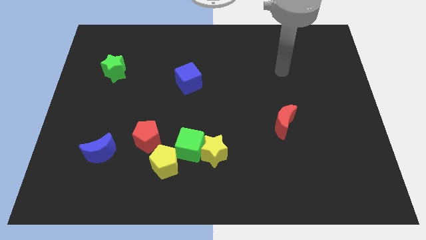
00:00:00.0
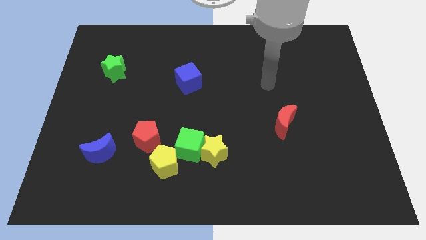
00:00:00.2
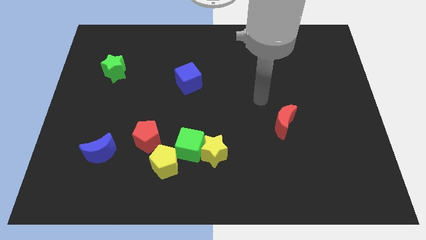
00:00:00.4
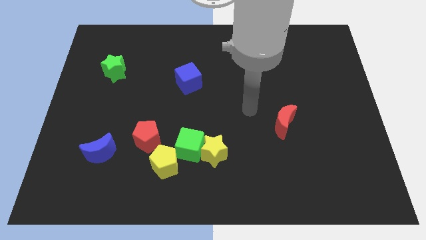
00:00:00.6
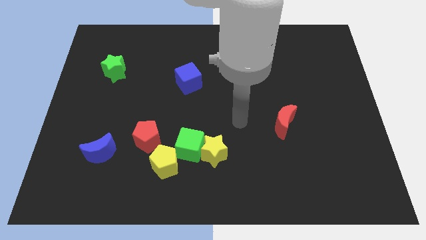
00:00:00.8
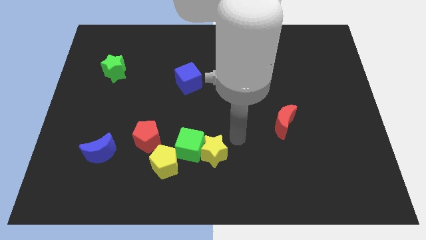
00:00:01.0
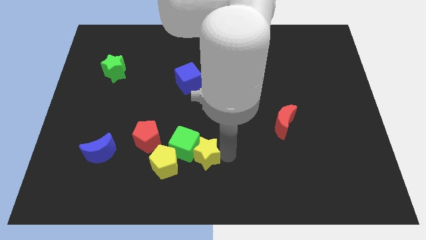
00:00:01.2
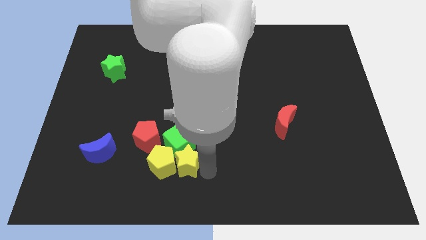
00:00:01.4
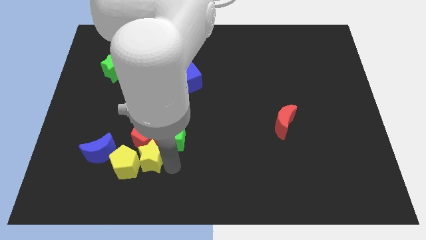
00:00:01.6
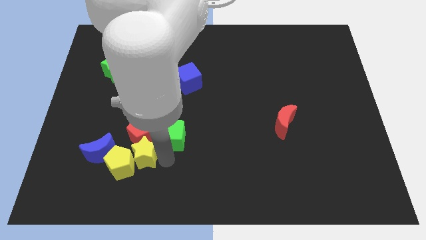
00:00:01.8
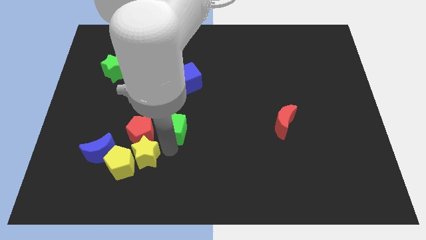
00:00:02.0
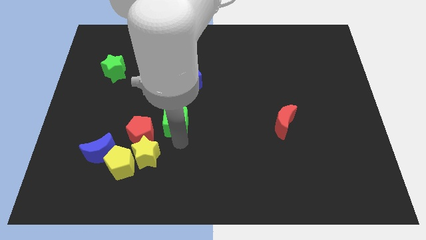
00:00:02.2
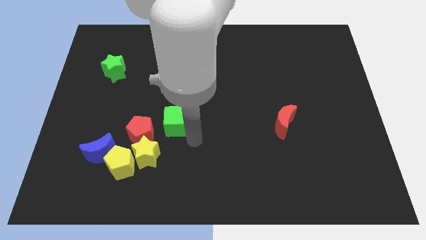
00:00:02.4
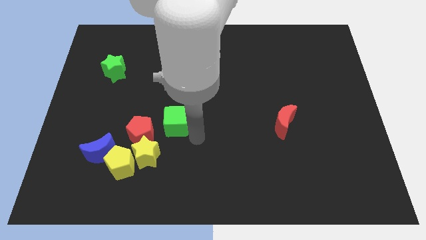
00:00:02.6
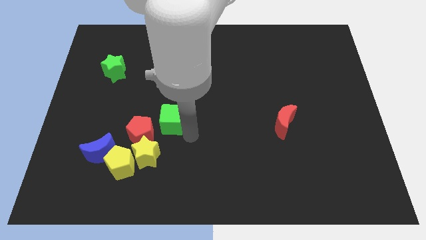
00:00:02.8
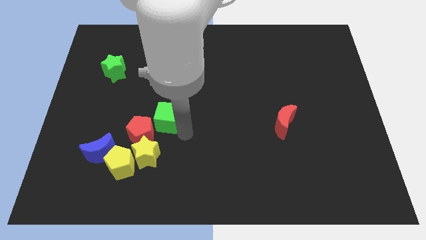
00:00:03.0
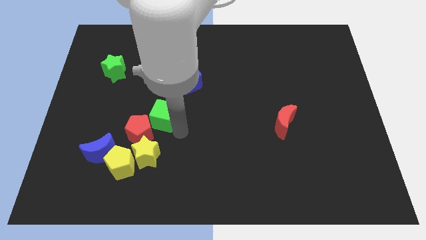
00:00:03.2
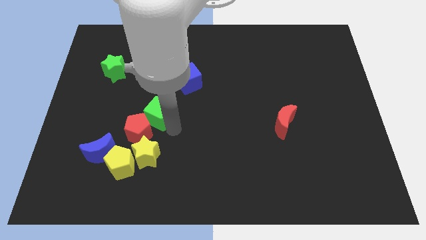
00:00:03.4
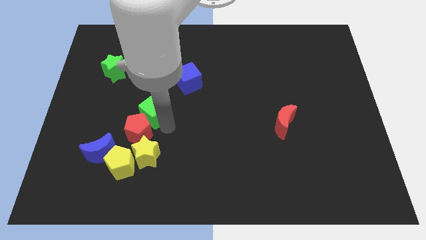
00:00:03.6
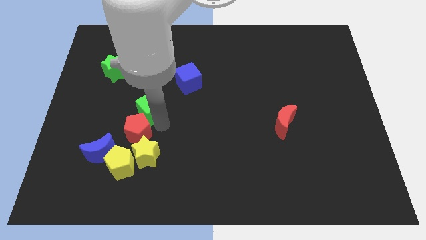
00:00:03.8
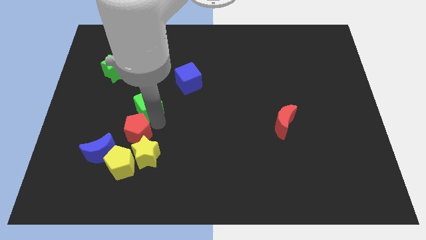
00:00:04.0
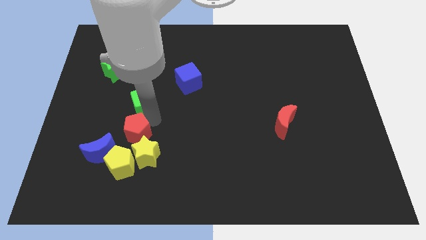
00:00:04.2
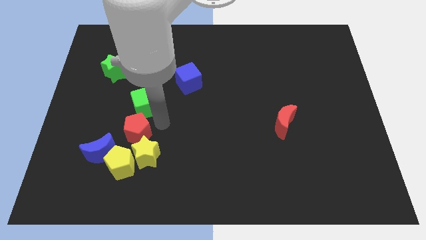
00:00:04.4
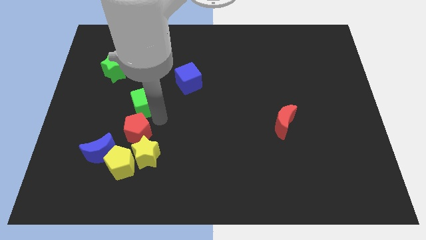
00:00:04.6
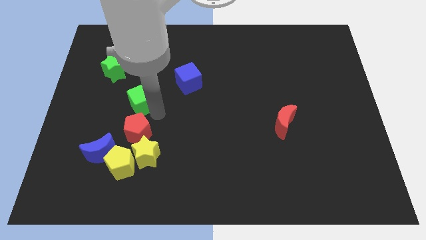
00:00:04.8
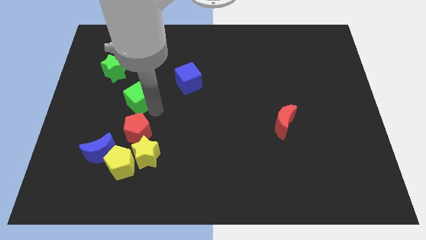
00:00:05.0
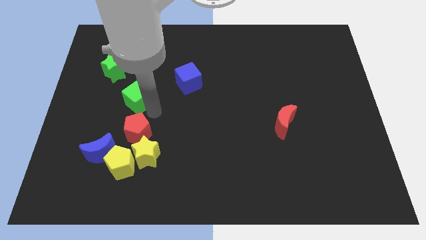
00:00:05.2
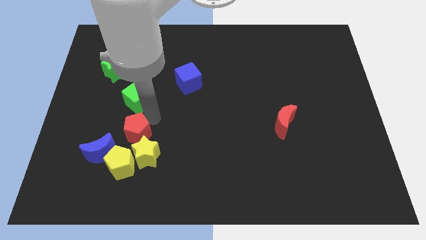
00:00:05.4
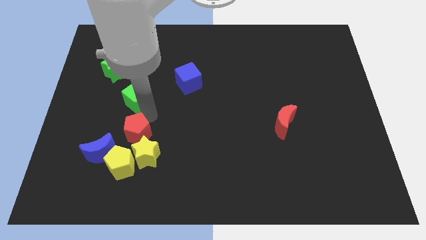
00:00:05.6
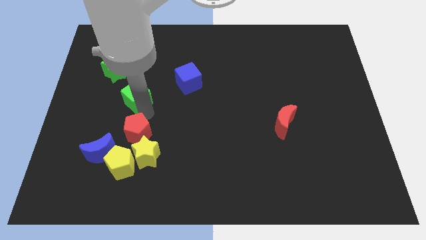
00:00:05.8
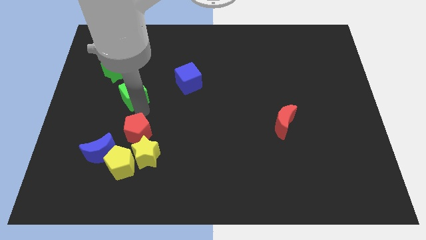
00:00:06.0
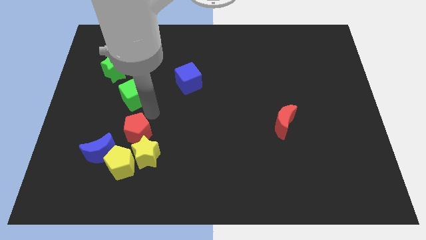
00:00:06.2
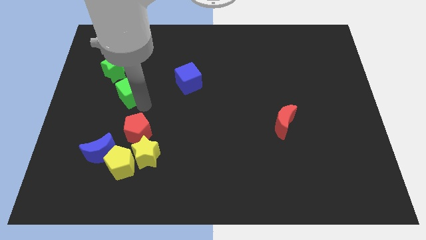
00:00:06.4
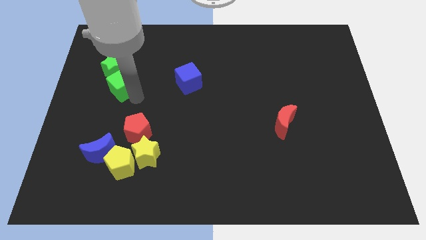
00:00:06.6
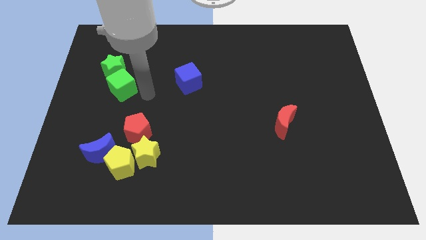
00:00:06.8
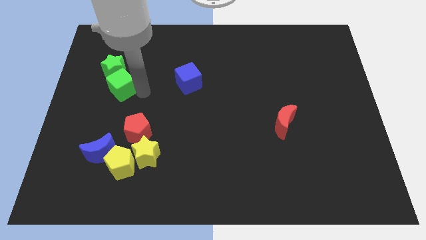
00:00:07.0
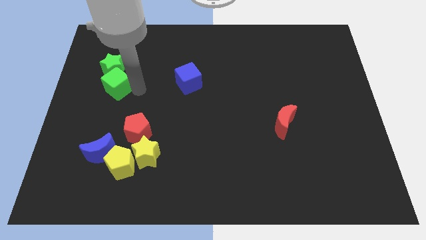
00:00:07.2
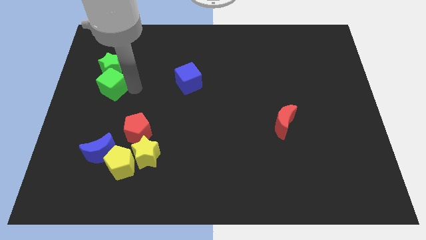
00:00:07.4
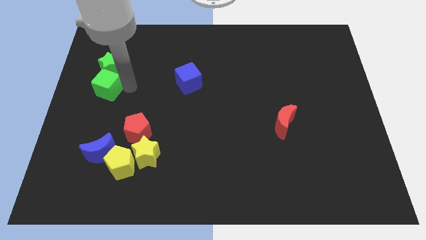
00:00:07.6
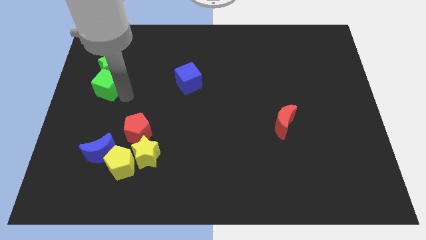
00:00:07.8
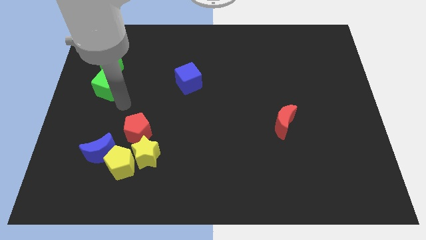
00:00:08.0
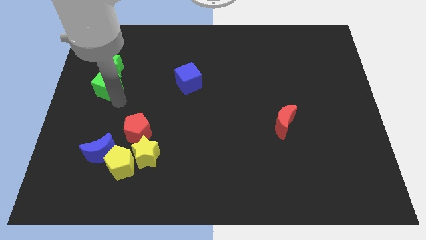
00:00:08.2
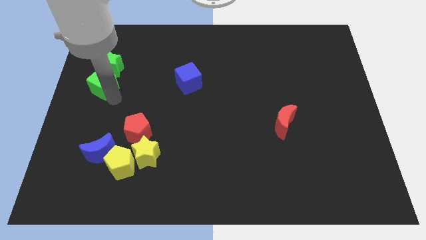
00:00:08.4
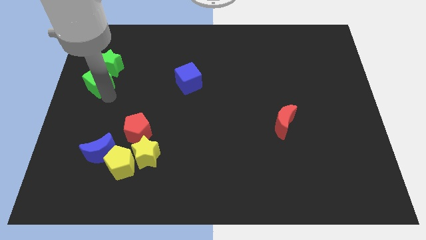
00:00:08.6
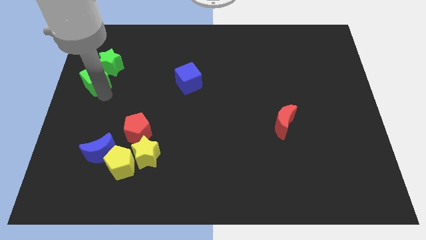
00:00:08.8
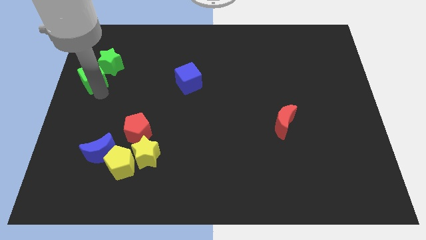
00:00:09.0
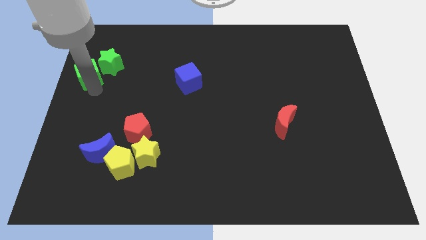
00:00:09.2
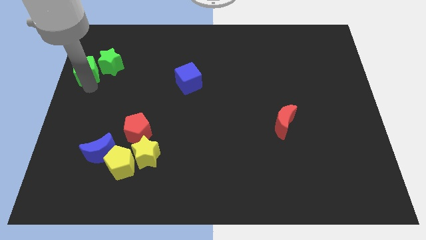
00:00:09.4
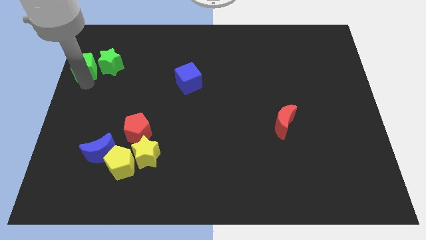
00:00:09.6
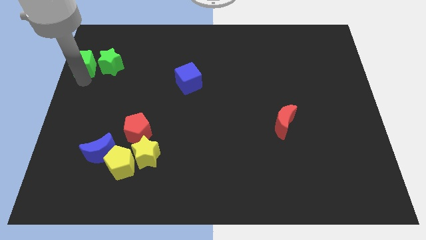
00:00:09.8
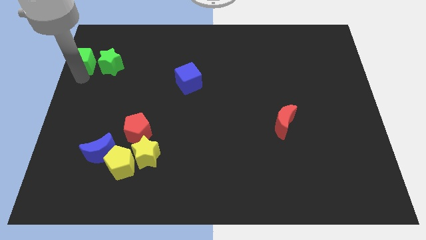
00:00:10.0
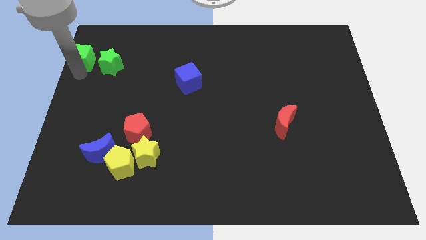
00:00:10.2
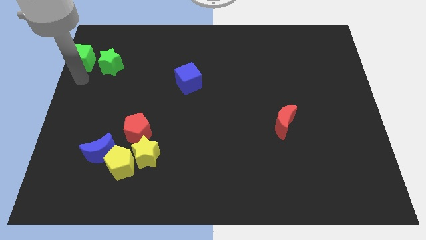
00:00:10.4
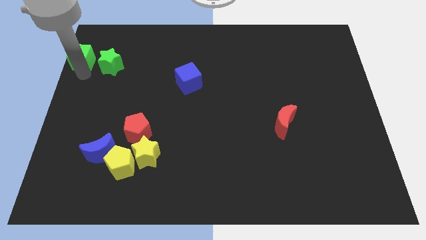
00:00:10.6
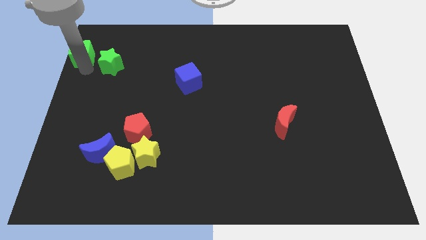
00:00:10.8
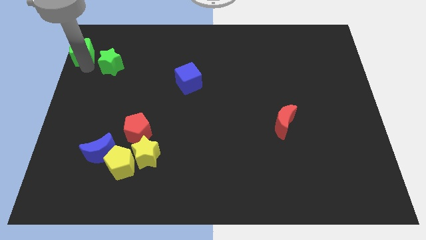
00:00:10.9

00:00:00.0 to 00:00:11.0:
put the green cube to the upper left corner

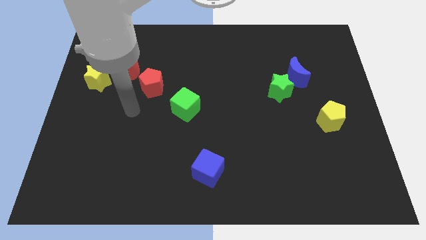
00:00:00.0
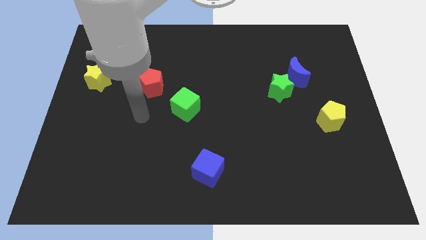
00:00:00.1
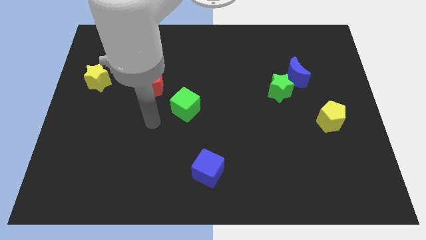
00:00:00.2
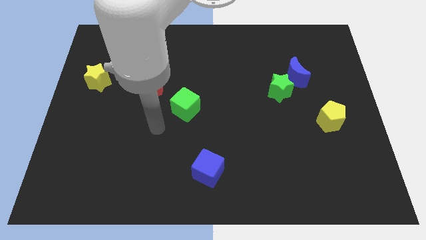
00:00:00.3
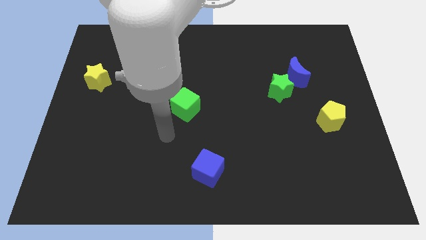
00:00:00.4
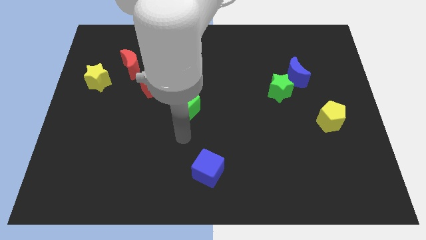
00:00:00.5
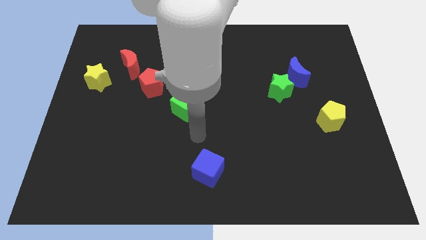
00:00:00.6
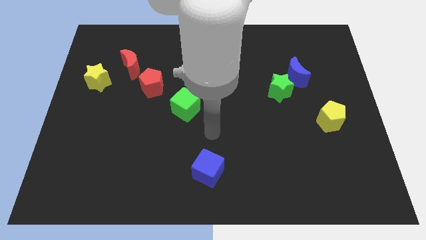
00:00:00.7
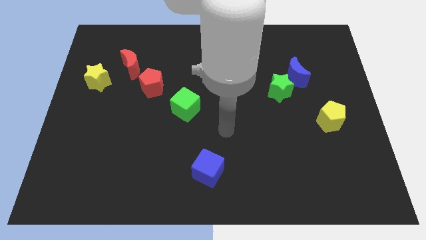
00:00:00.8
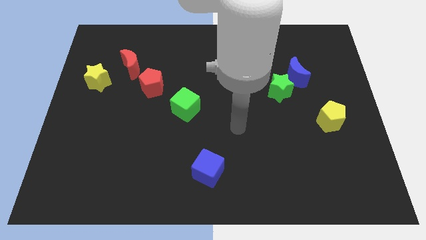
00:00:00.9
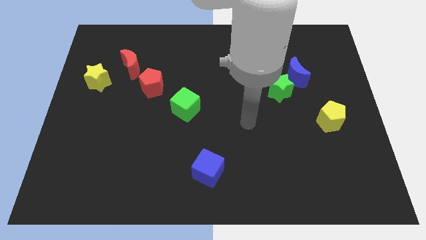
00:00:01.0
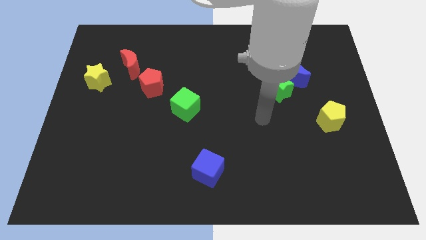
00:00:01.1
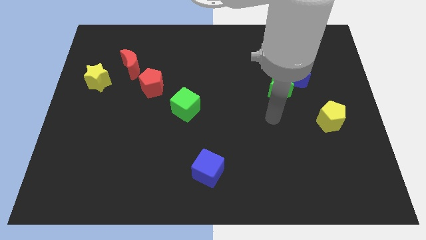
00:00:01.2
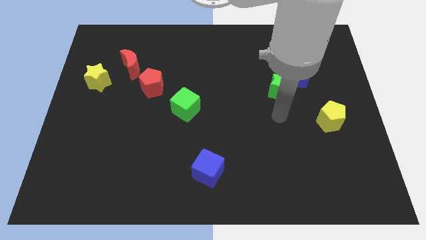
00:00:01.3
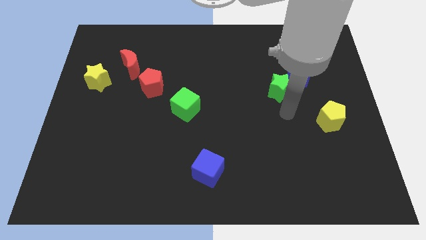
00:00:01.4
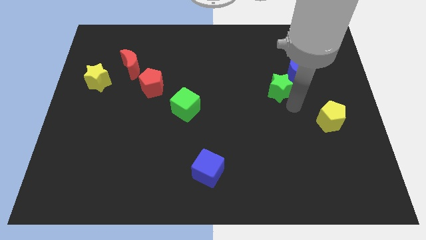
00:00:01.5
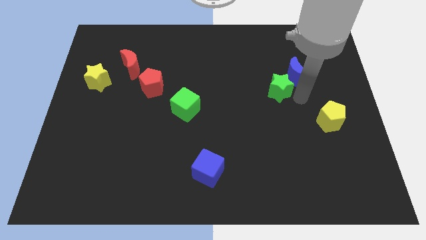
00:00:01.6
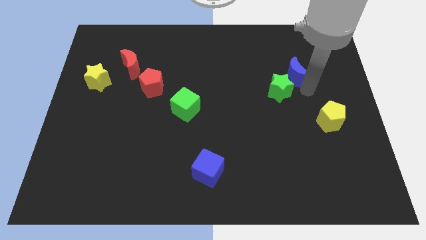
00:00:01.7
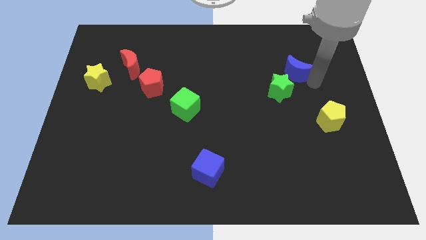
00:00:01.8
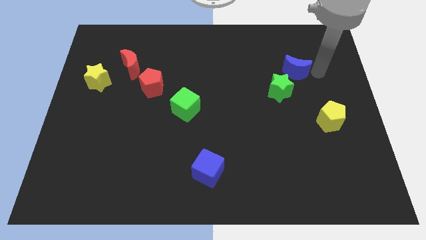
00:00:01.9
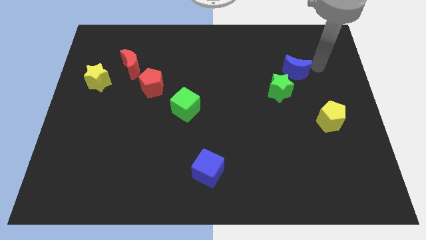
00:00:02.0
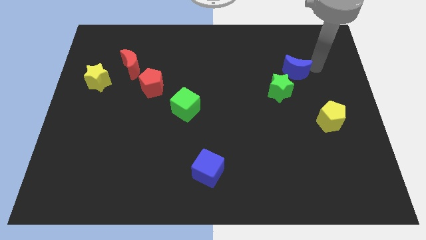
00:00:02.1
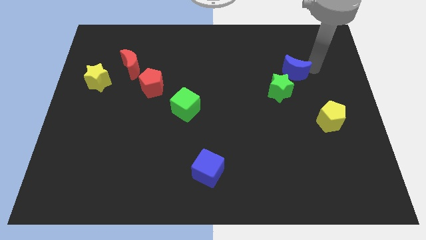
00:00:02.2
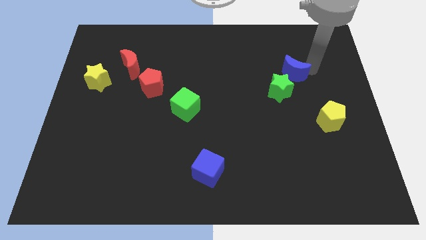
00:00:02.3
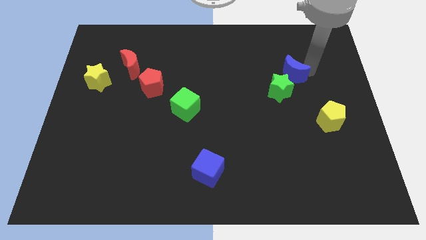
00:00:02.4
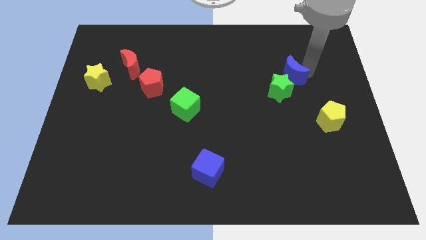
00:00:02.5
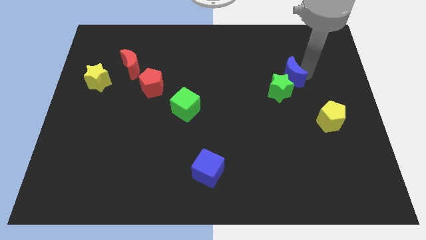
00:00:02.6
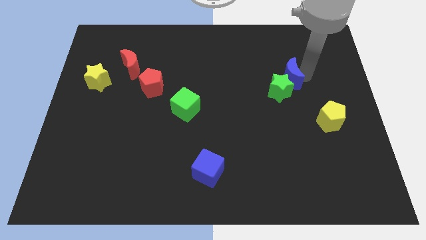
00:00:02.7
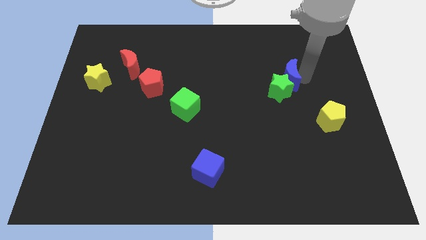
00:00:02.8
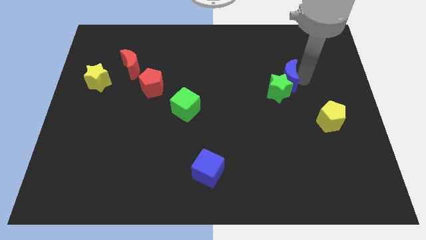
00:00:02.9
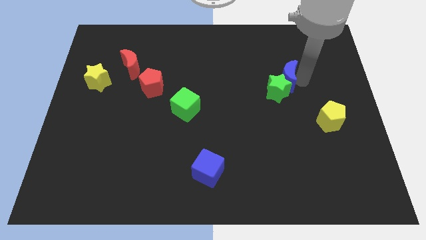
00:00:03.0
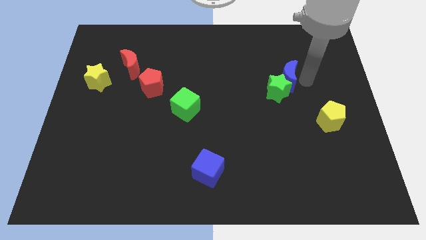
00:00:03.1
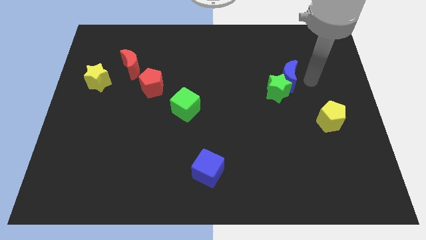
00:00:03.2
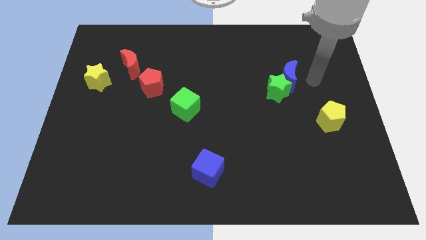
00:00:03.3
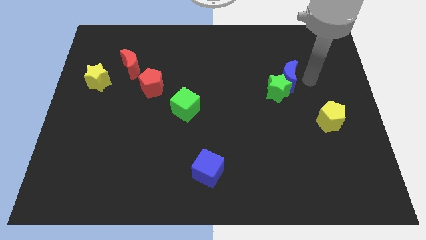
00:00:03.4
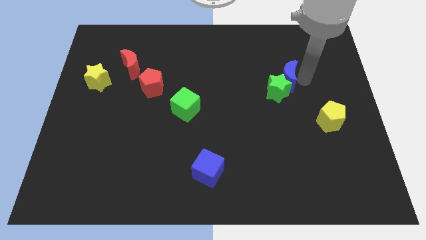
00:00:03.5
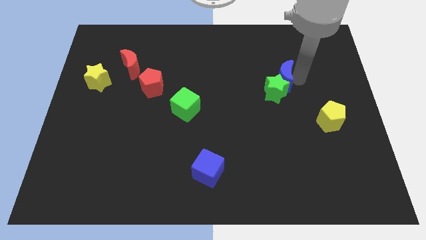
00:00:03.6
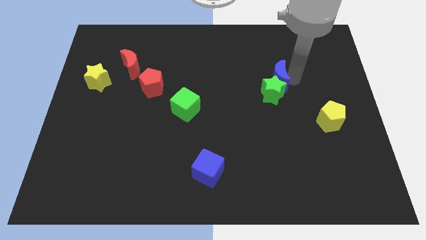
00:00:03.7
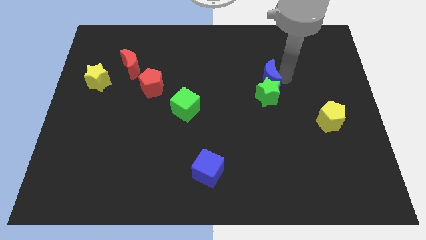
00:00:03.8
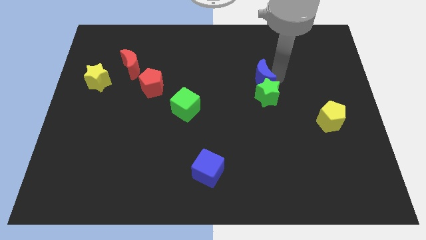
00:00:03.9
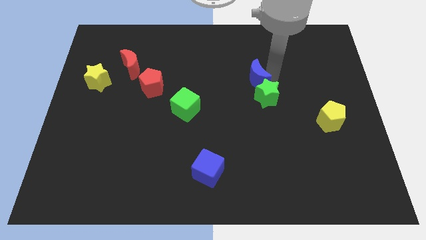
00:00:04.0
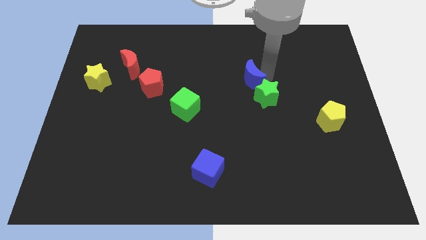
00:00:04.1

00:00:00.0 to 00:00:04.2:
slide the blue moon to the center
